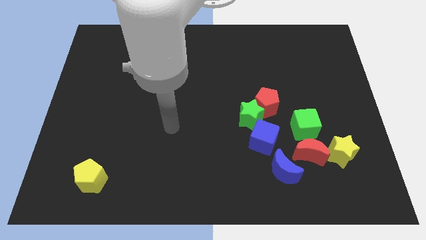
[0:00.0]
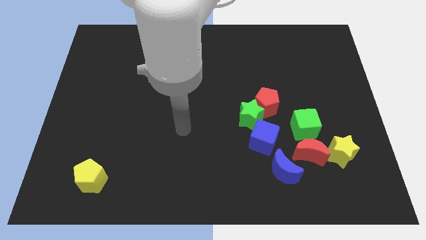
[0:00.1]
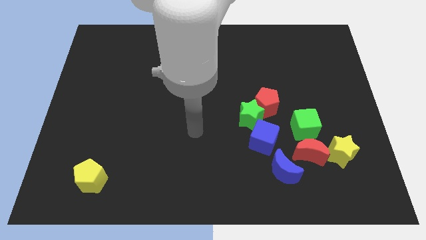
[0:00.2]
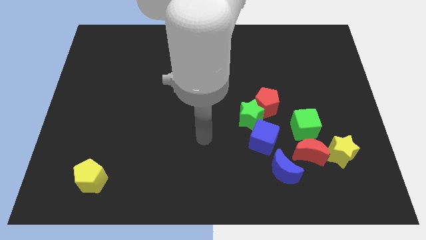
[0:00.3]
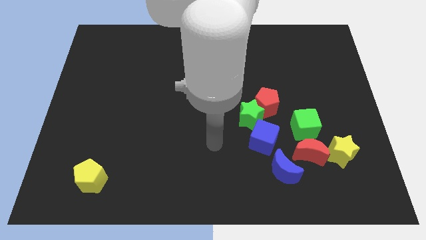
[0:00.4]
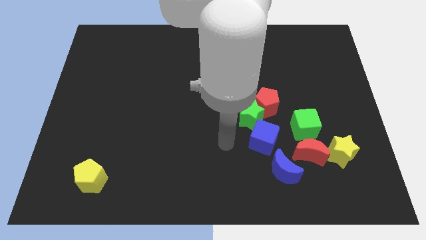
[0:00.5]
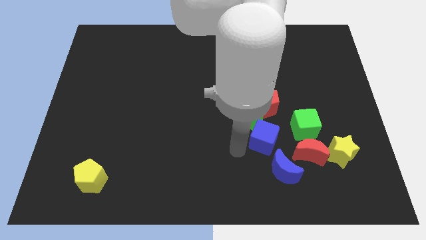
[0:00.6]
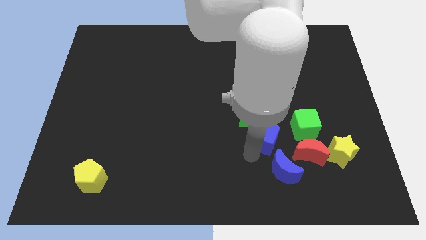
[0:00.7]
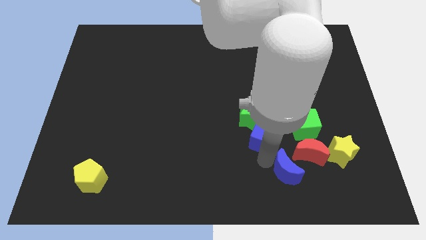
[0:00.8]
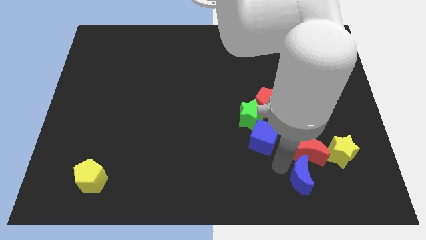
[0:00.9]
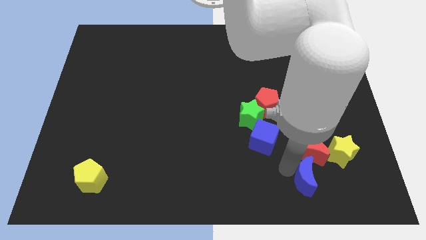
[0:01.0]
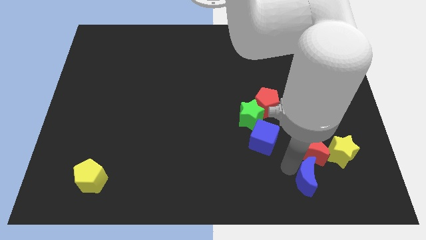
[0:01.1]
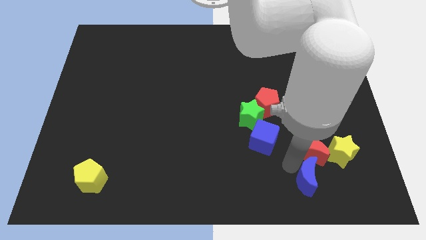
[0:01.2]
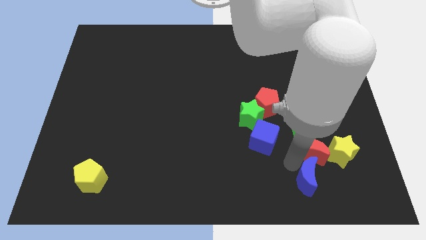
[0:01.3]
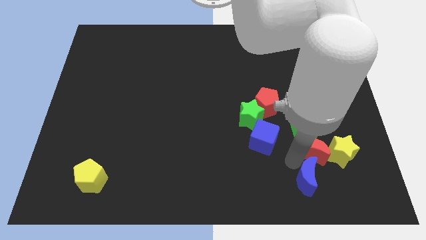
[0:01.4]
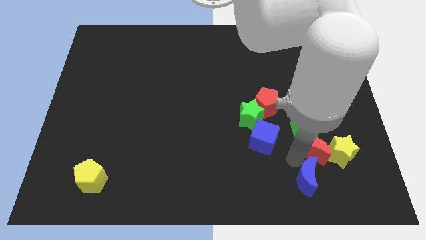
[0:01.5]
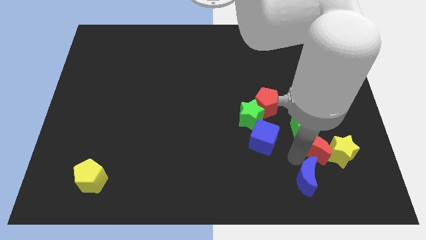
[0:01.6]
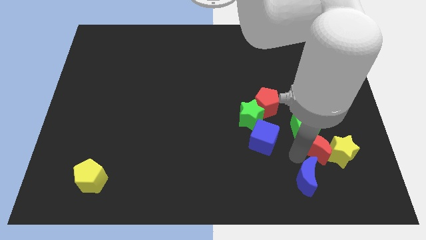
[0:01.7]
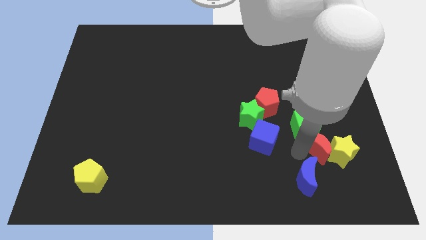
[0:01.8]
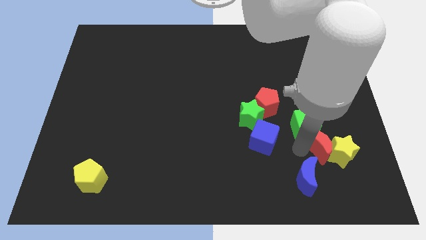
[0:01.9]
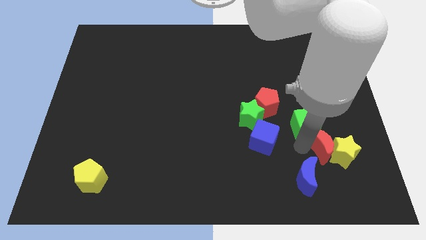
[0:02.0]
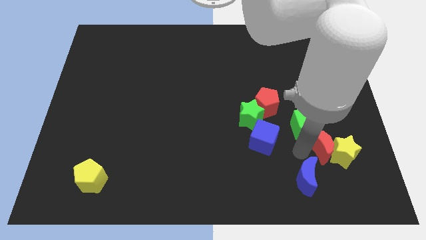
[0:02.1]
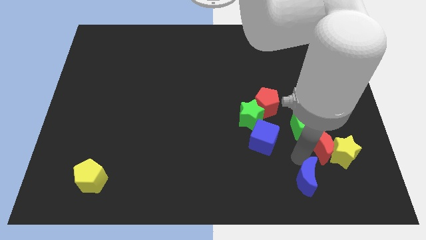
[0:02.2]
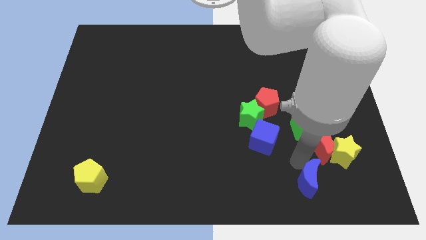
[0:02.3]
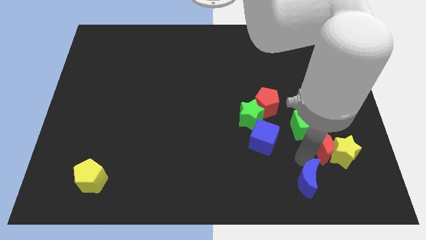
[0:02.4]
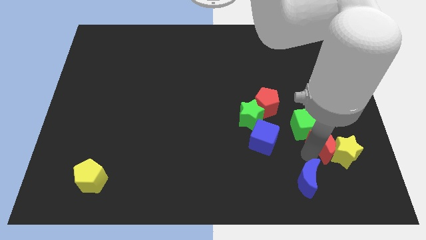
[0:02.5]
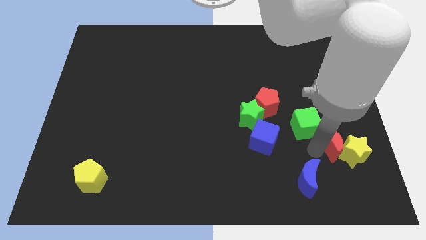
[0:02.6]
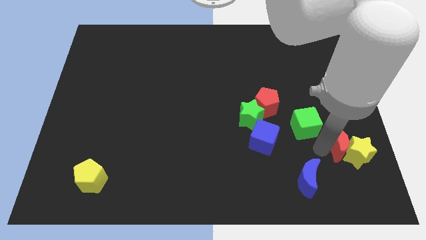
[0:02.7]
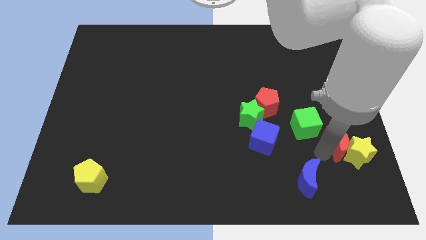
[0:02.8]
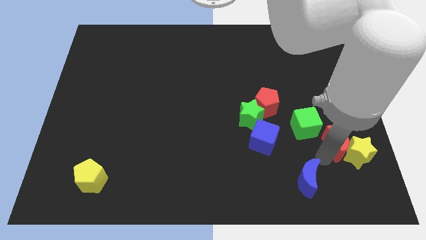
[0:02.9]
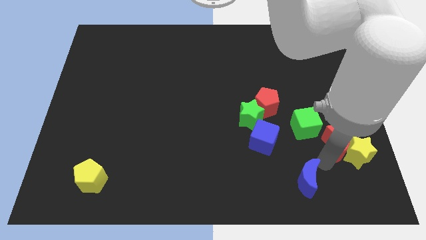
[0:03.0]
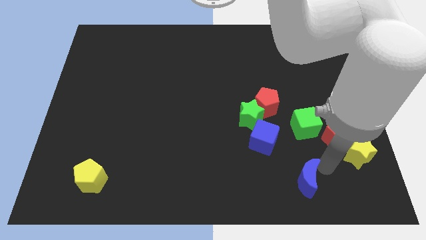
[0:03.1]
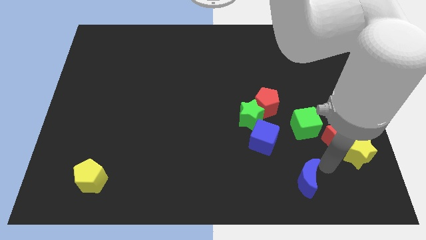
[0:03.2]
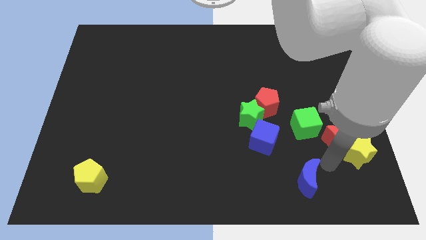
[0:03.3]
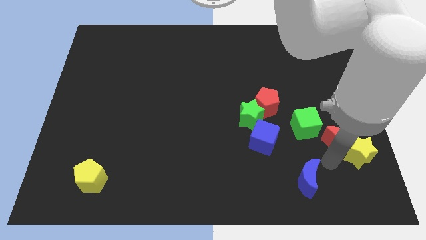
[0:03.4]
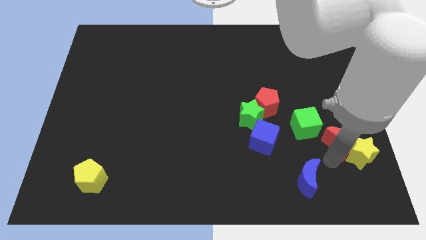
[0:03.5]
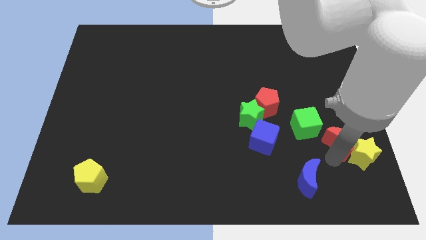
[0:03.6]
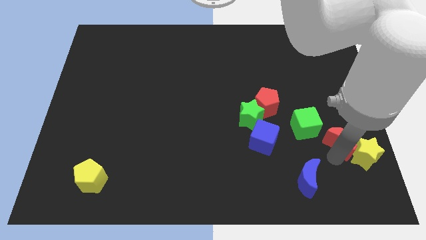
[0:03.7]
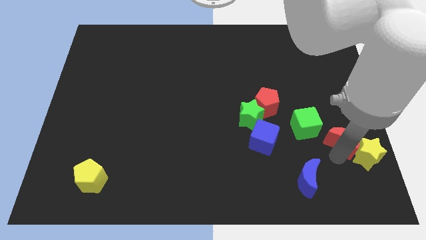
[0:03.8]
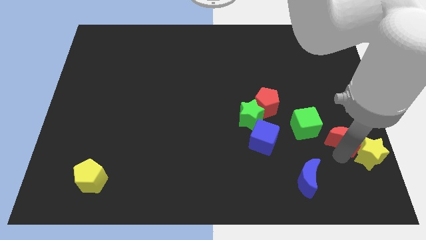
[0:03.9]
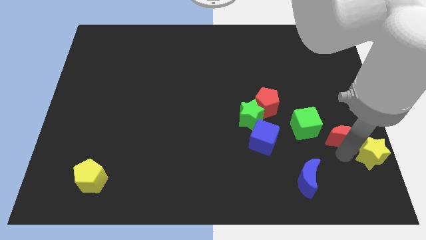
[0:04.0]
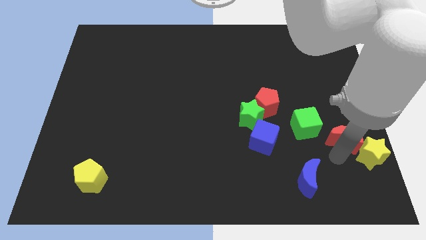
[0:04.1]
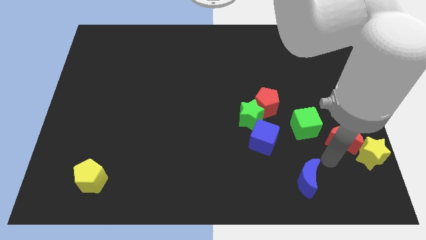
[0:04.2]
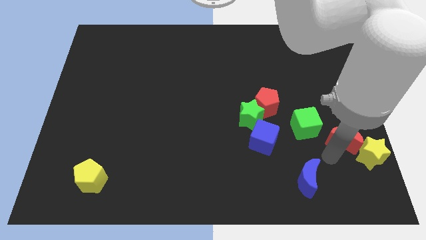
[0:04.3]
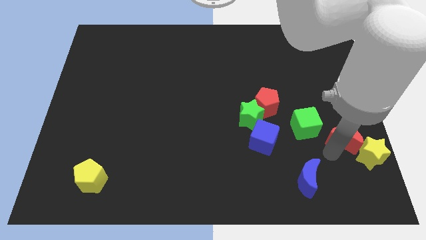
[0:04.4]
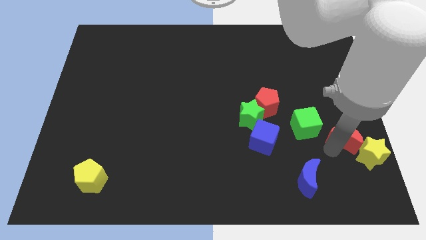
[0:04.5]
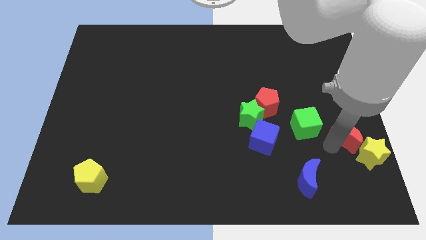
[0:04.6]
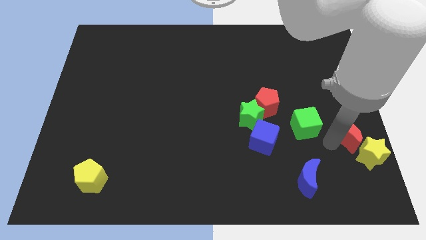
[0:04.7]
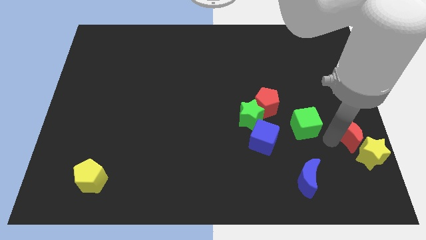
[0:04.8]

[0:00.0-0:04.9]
slide the red moon to the right side

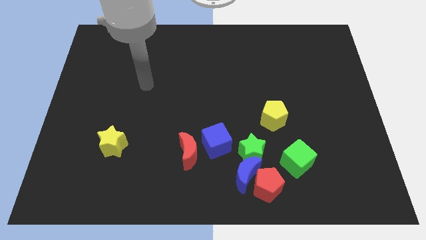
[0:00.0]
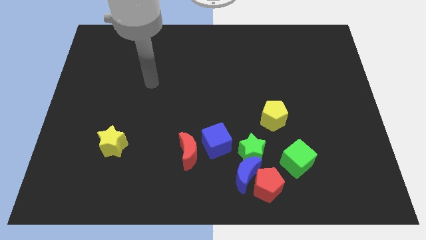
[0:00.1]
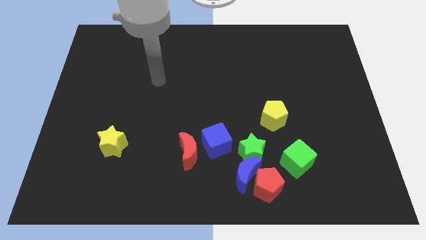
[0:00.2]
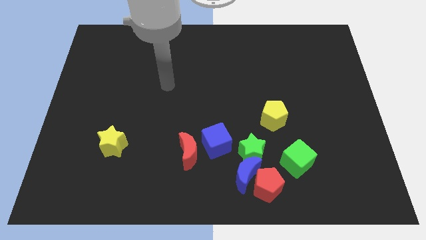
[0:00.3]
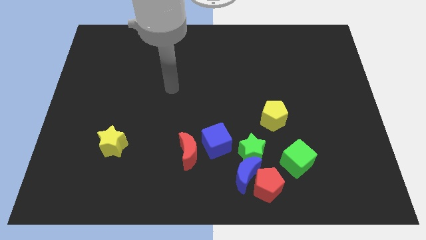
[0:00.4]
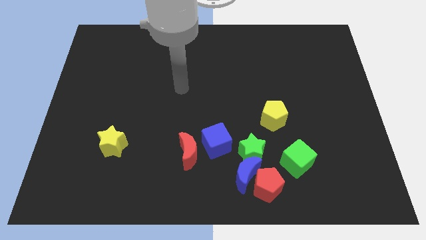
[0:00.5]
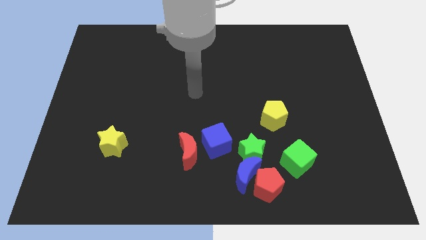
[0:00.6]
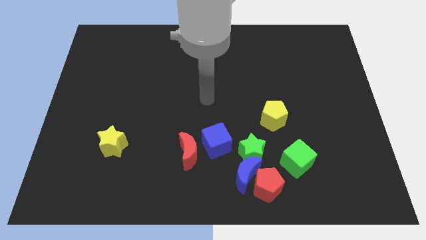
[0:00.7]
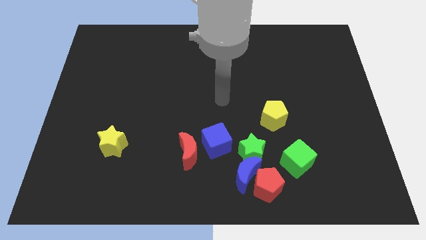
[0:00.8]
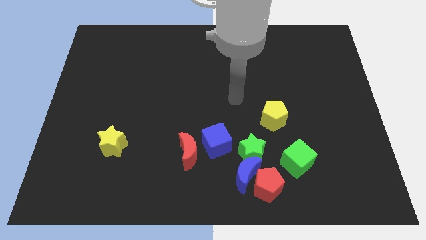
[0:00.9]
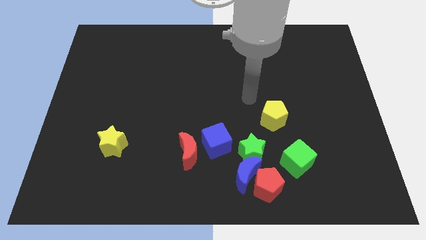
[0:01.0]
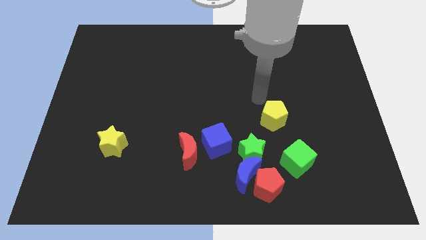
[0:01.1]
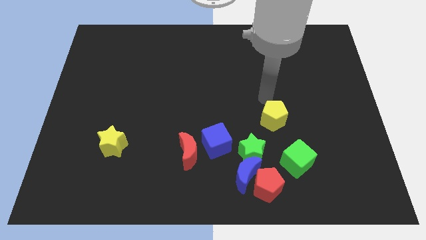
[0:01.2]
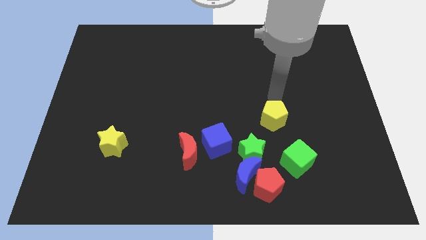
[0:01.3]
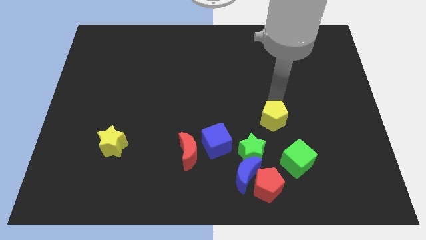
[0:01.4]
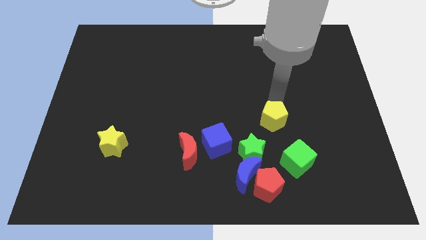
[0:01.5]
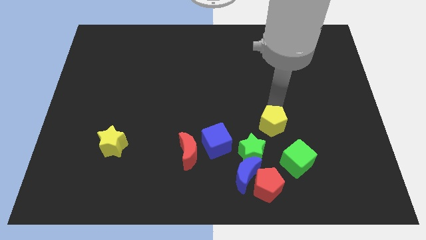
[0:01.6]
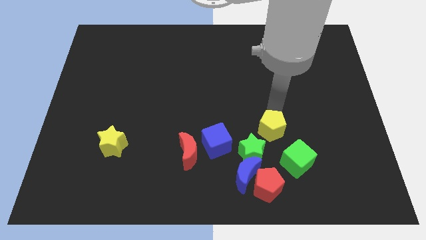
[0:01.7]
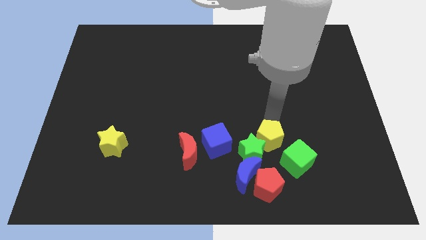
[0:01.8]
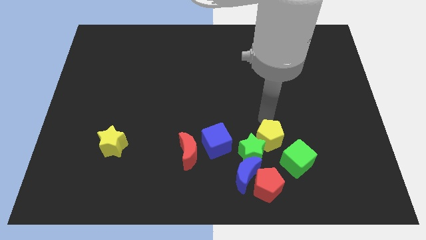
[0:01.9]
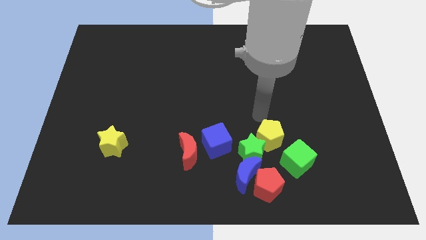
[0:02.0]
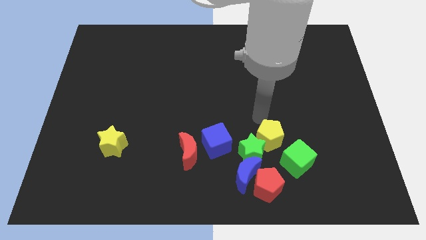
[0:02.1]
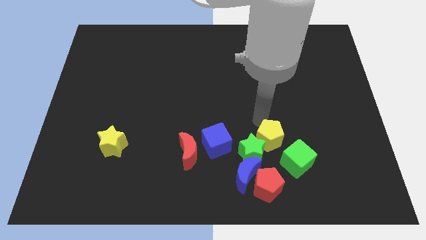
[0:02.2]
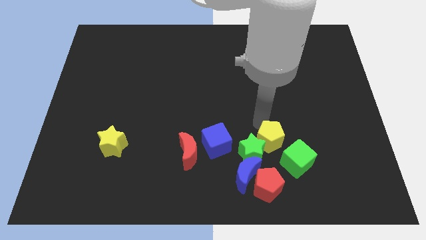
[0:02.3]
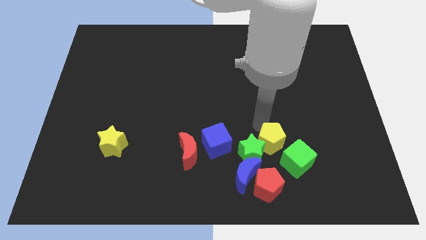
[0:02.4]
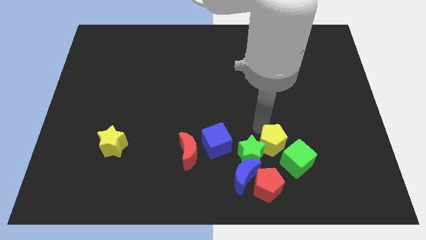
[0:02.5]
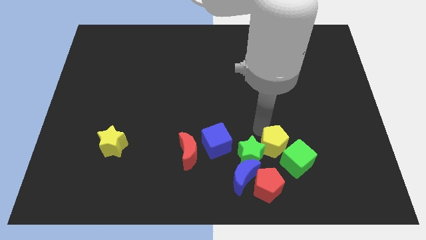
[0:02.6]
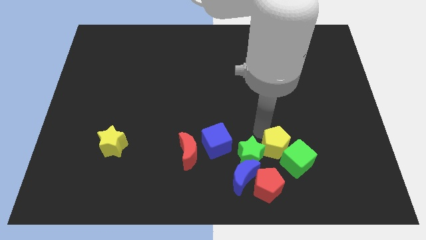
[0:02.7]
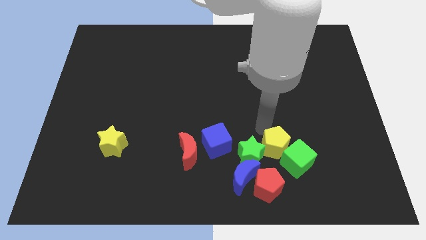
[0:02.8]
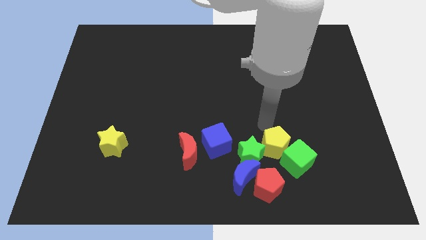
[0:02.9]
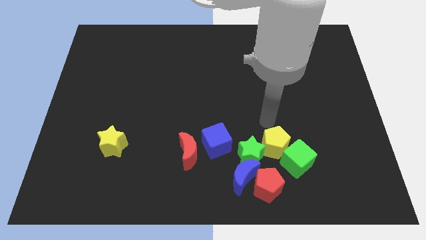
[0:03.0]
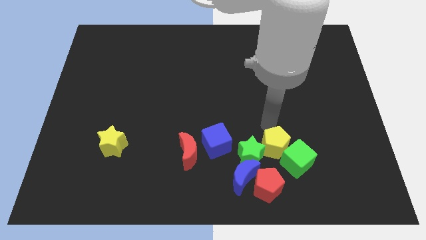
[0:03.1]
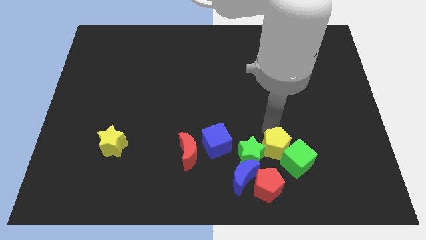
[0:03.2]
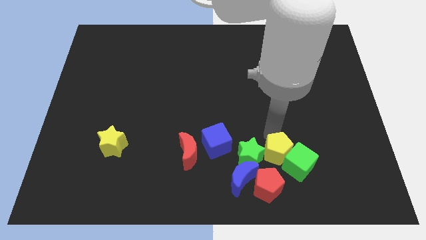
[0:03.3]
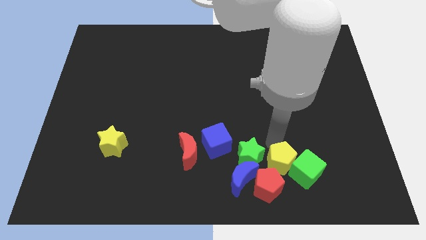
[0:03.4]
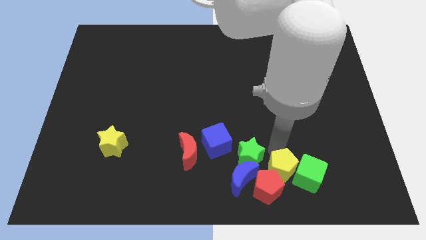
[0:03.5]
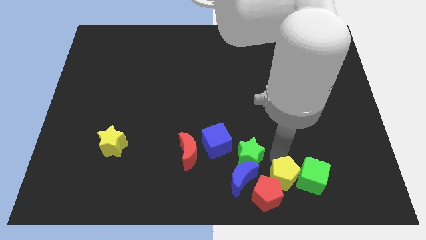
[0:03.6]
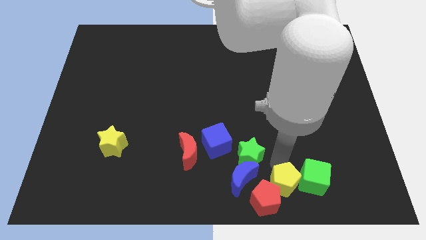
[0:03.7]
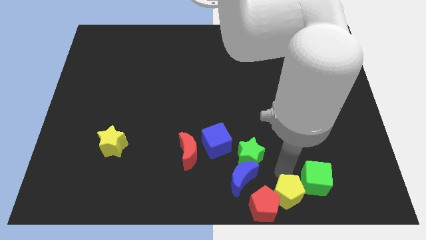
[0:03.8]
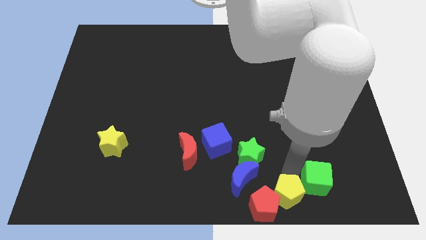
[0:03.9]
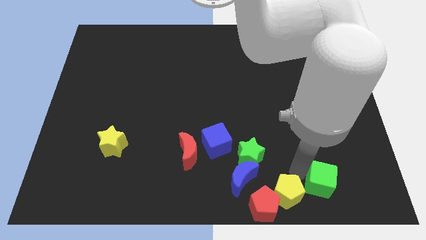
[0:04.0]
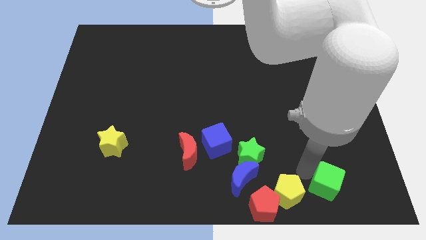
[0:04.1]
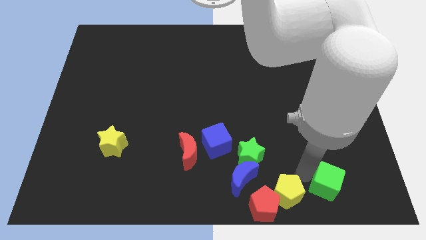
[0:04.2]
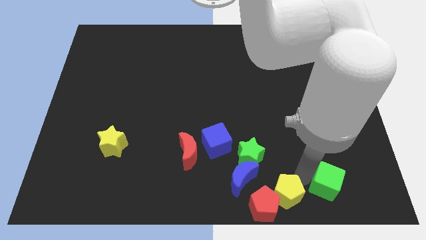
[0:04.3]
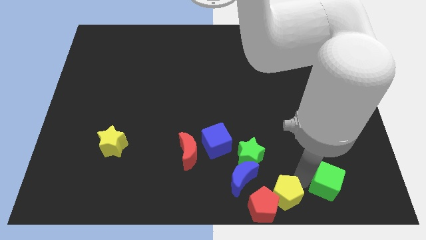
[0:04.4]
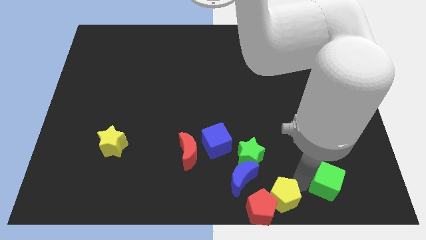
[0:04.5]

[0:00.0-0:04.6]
slide the yellow pentagon to the bottom side
